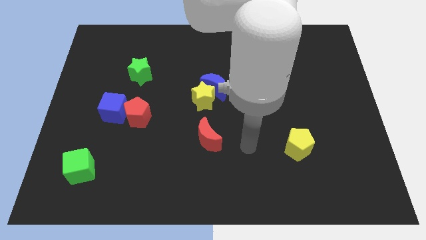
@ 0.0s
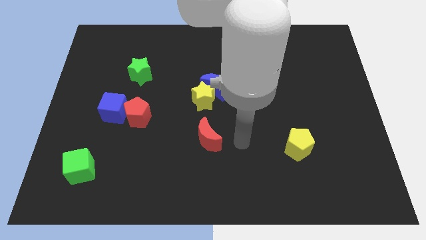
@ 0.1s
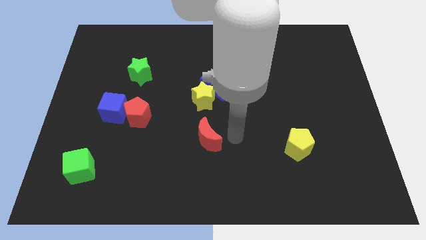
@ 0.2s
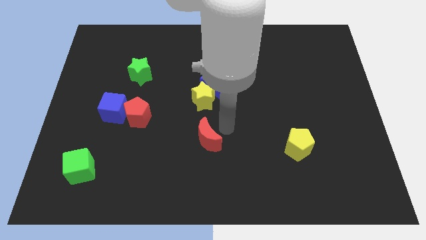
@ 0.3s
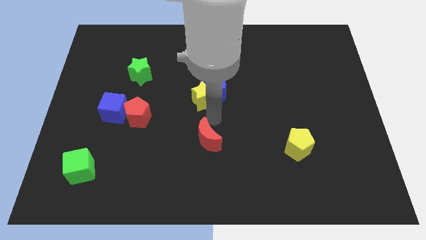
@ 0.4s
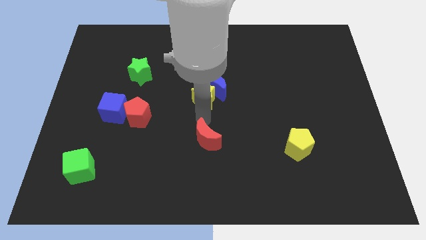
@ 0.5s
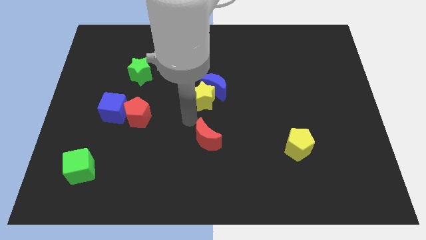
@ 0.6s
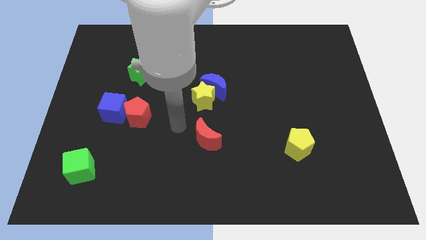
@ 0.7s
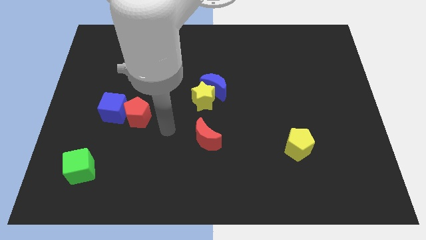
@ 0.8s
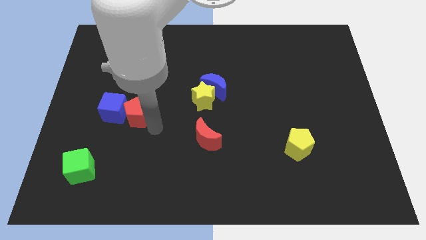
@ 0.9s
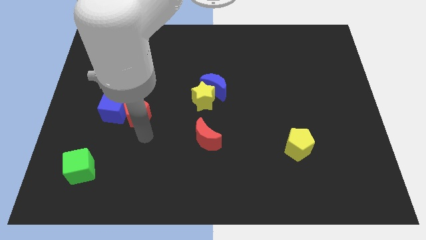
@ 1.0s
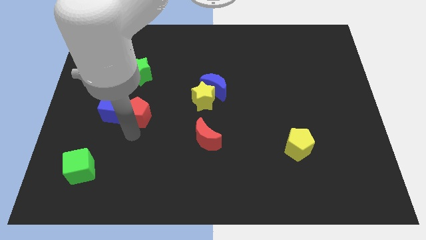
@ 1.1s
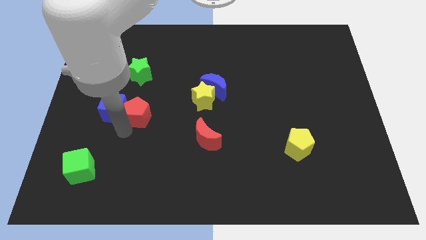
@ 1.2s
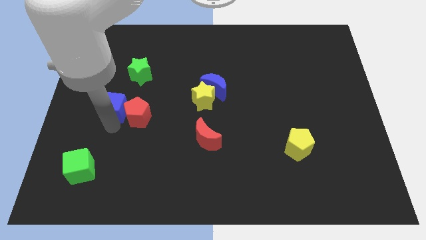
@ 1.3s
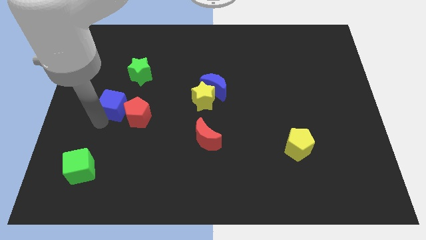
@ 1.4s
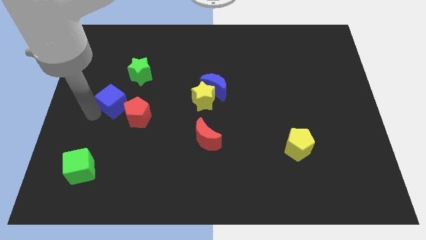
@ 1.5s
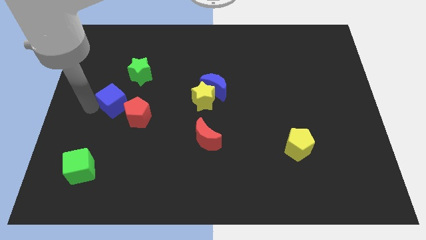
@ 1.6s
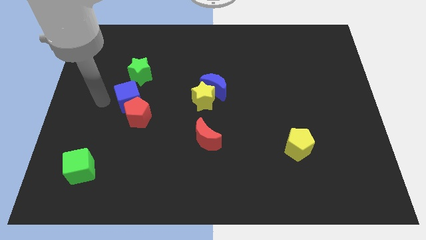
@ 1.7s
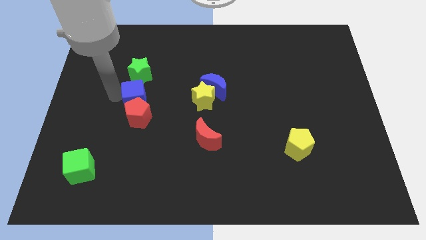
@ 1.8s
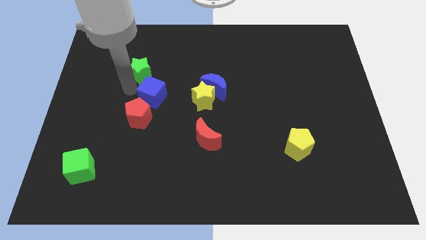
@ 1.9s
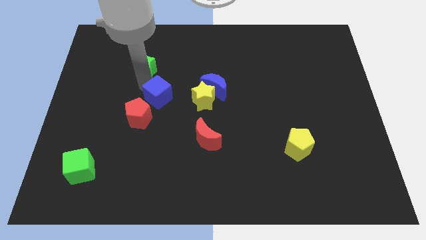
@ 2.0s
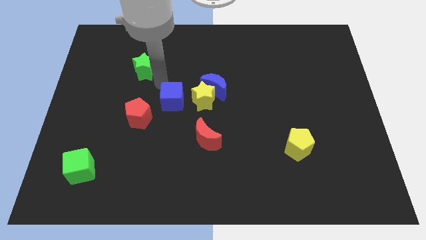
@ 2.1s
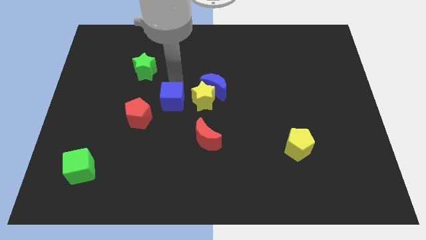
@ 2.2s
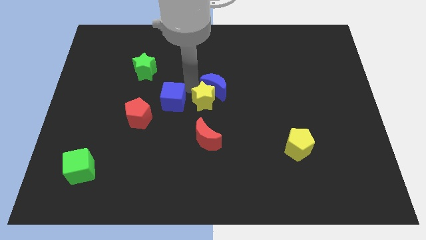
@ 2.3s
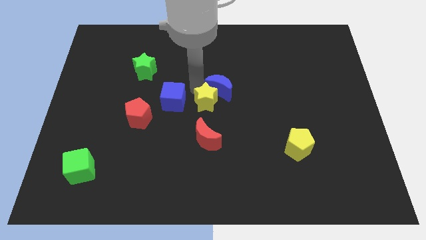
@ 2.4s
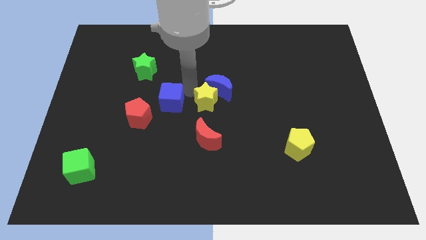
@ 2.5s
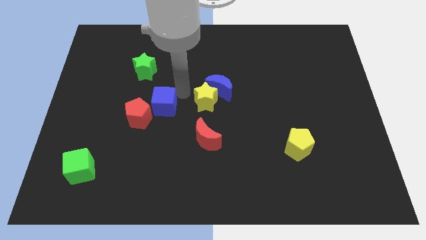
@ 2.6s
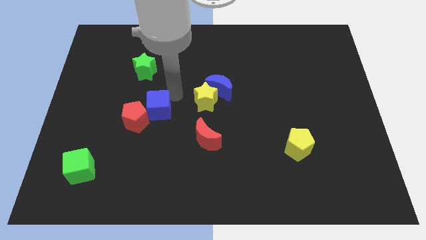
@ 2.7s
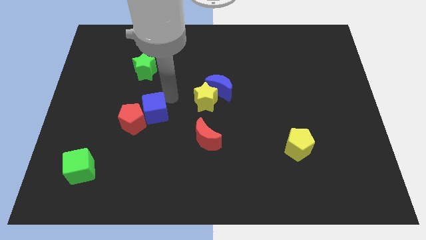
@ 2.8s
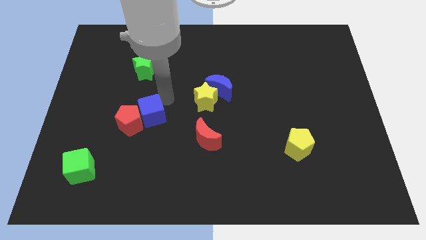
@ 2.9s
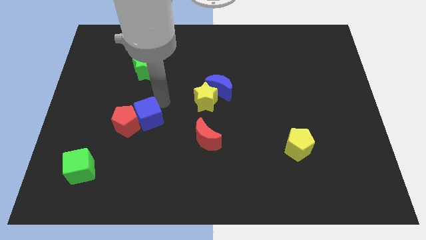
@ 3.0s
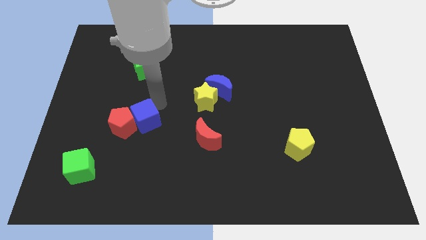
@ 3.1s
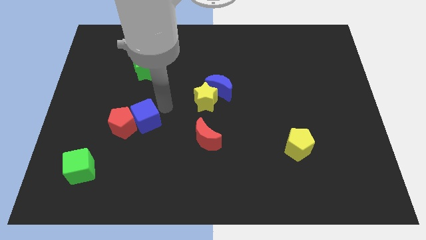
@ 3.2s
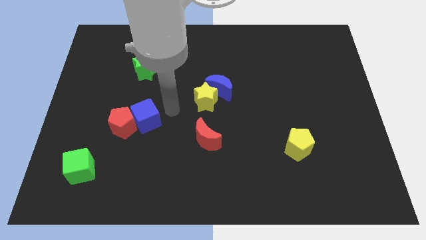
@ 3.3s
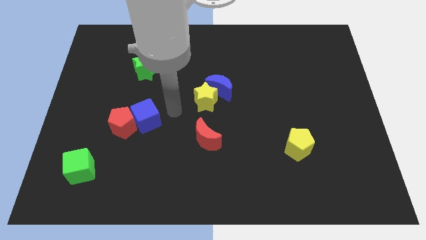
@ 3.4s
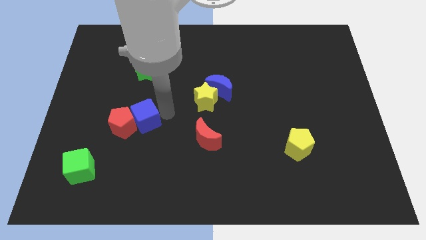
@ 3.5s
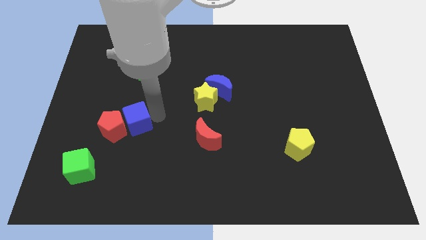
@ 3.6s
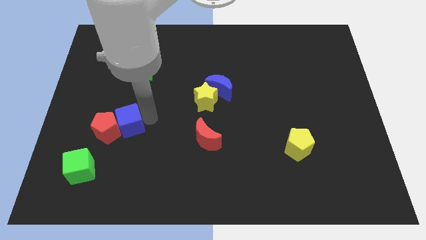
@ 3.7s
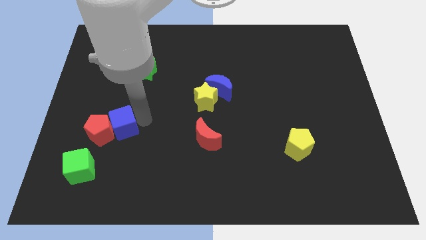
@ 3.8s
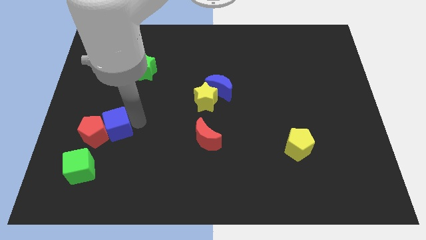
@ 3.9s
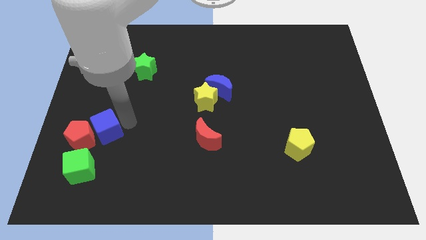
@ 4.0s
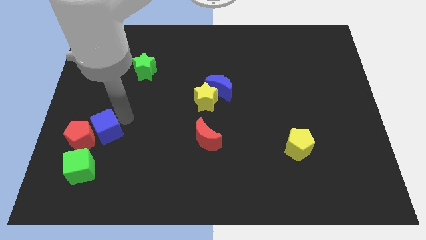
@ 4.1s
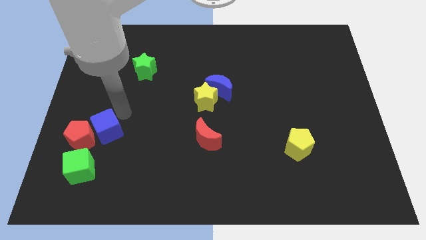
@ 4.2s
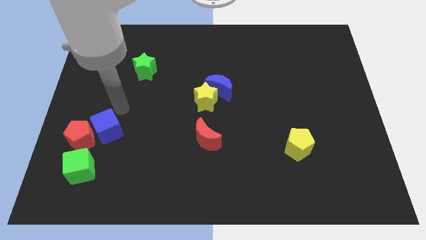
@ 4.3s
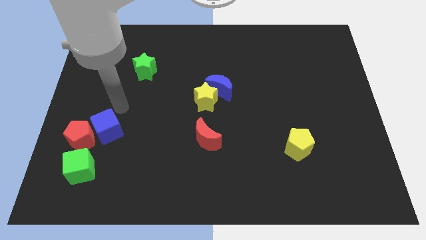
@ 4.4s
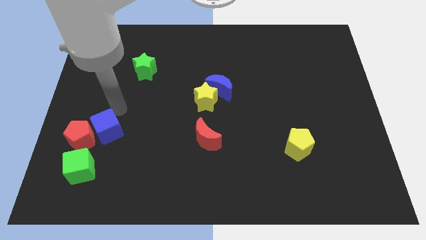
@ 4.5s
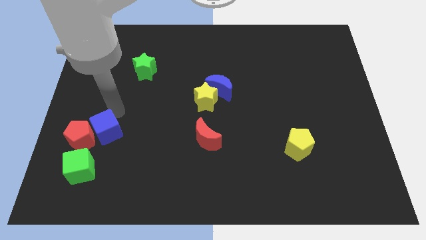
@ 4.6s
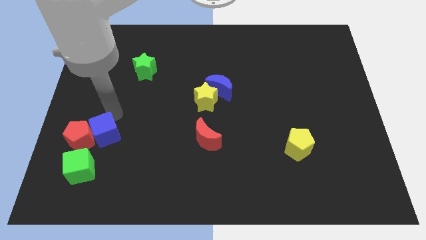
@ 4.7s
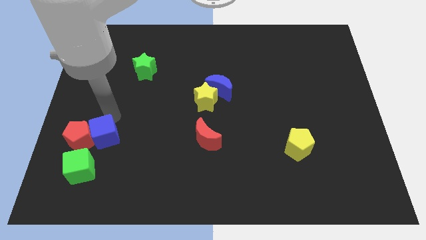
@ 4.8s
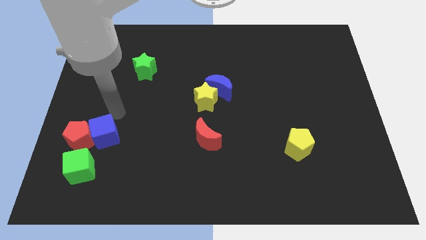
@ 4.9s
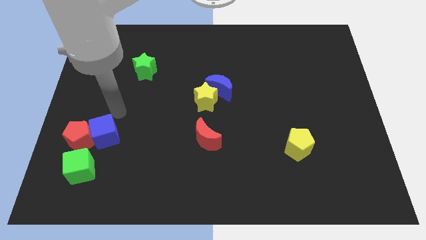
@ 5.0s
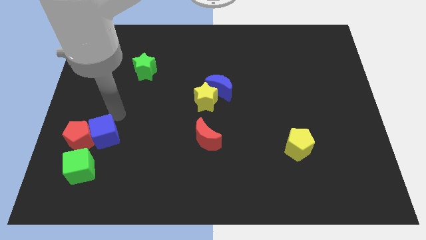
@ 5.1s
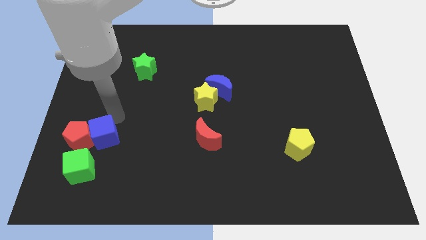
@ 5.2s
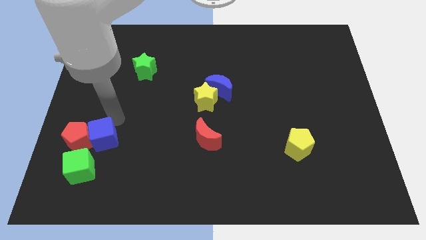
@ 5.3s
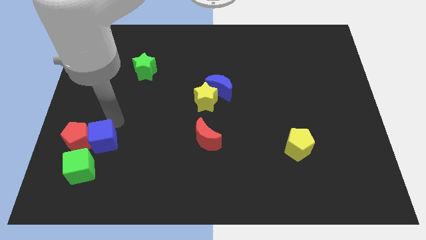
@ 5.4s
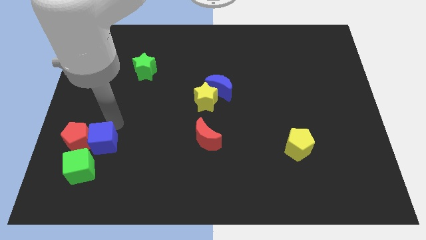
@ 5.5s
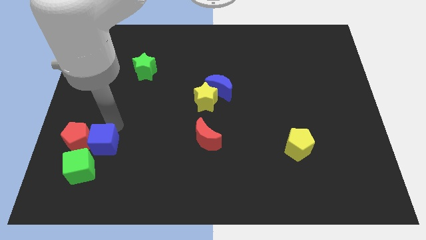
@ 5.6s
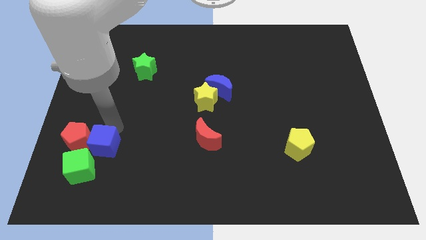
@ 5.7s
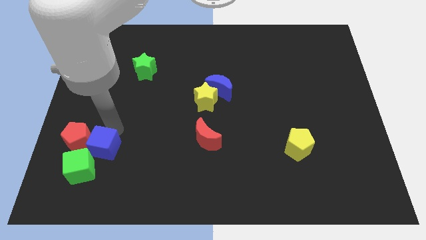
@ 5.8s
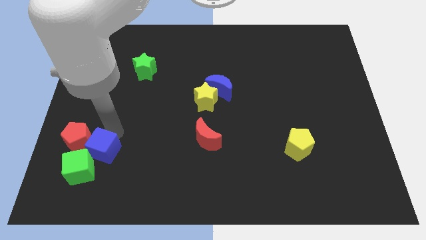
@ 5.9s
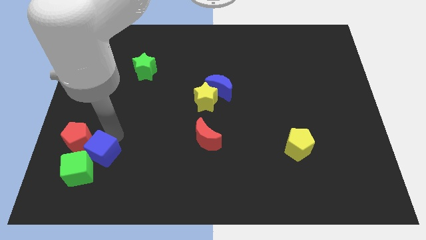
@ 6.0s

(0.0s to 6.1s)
push the blue cube to the green cube
